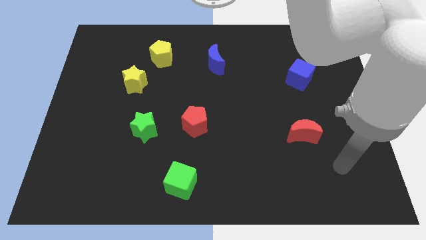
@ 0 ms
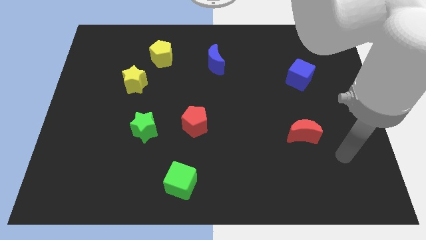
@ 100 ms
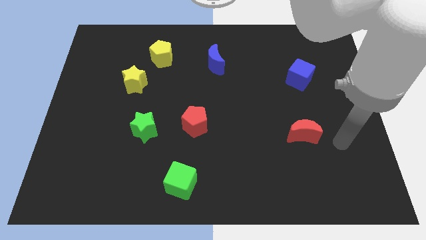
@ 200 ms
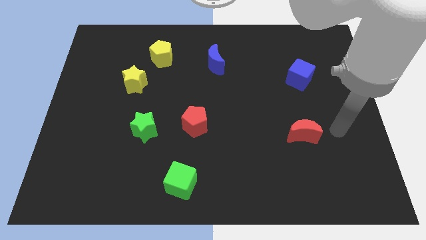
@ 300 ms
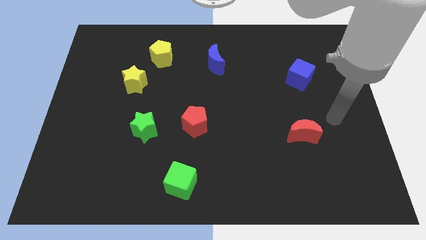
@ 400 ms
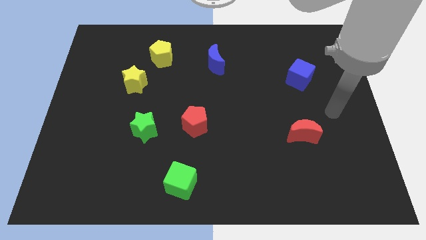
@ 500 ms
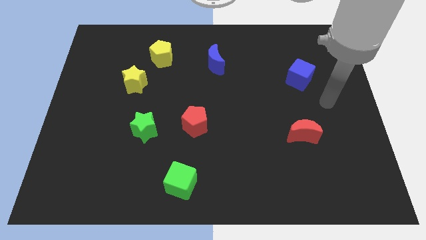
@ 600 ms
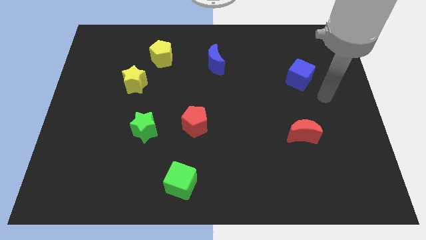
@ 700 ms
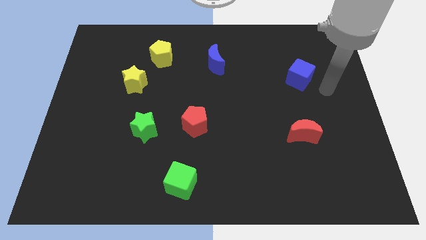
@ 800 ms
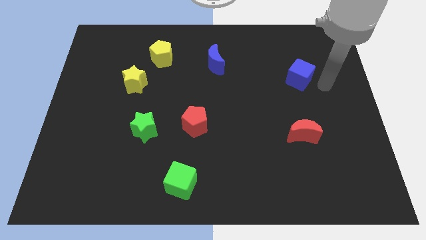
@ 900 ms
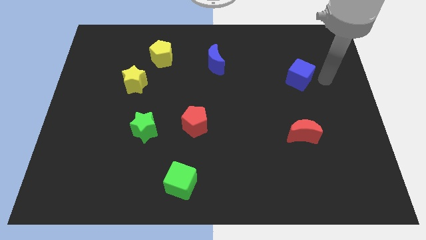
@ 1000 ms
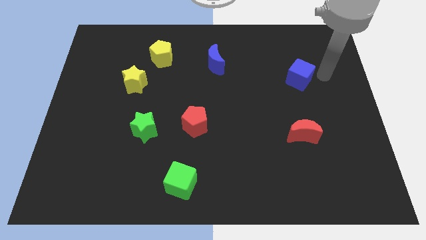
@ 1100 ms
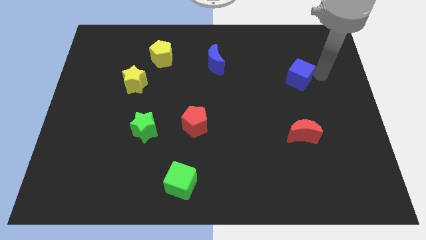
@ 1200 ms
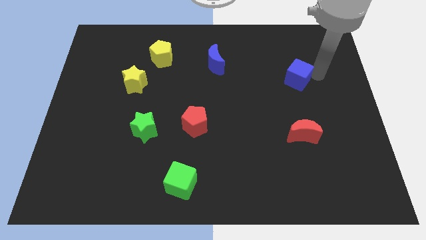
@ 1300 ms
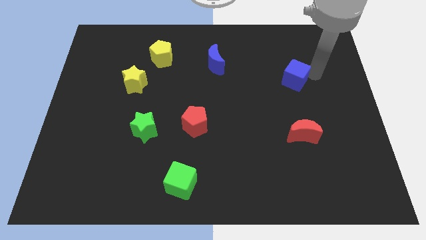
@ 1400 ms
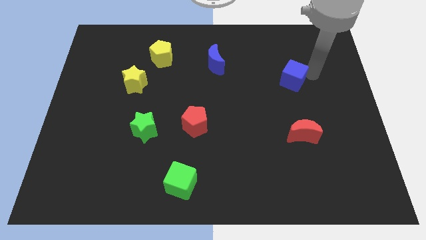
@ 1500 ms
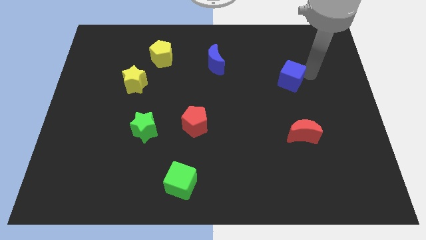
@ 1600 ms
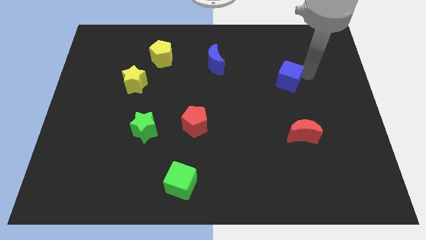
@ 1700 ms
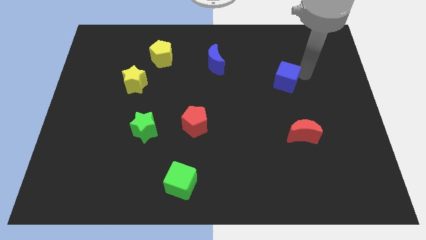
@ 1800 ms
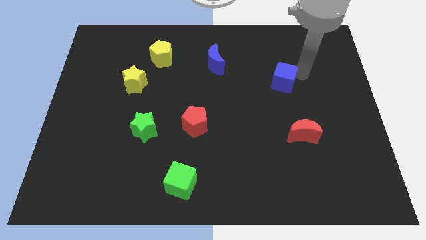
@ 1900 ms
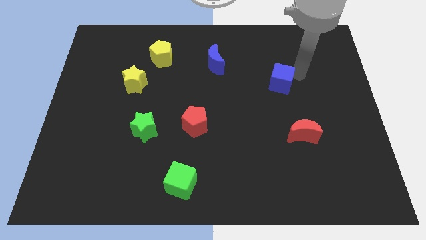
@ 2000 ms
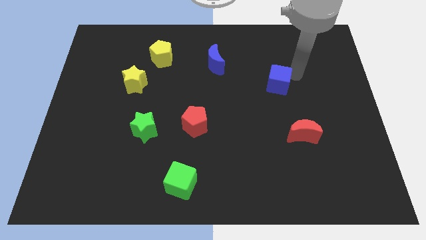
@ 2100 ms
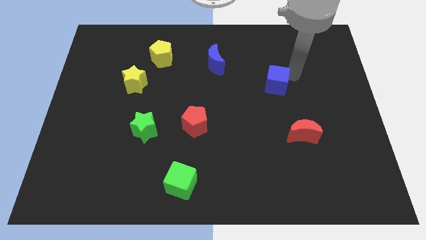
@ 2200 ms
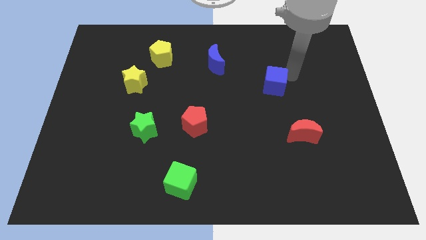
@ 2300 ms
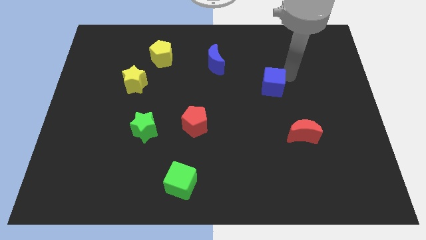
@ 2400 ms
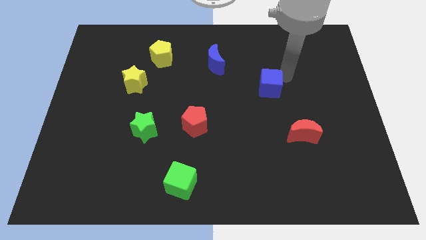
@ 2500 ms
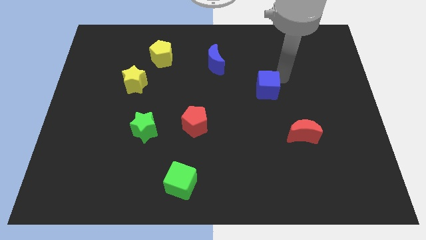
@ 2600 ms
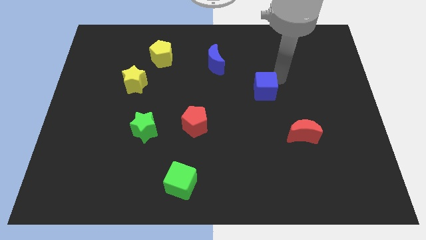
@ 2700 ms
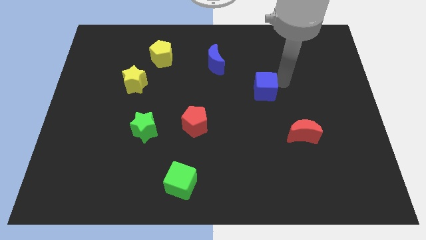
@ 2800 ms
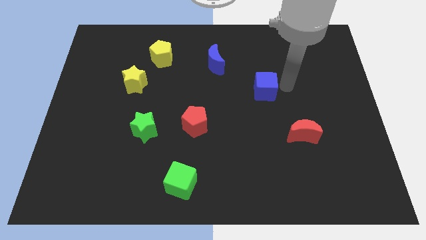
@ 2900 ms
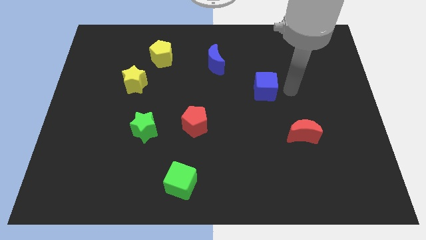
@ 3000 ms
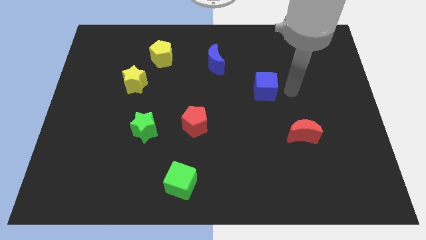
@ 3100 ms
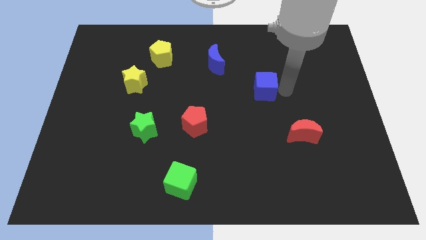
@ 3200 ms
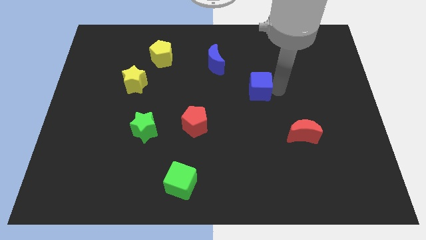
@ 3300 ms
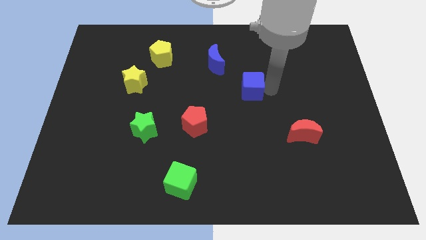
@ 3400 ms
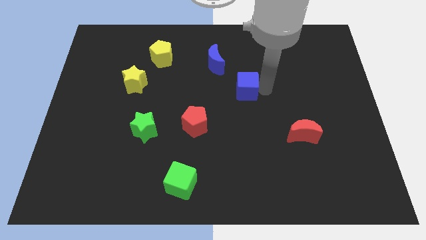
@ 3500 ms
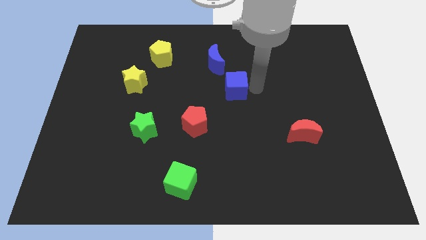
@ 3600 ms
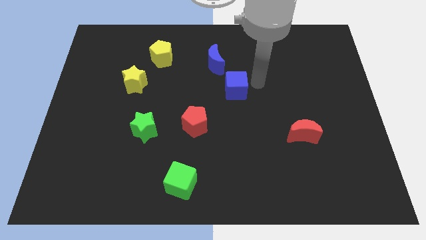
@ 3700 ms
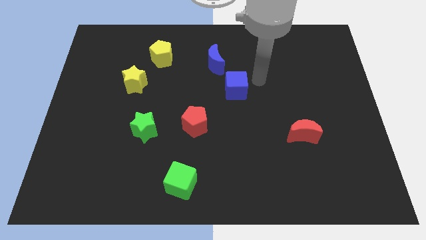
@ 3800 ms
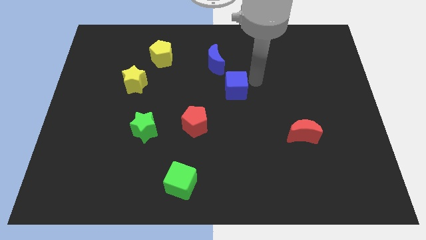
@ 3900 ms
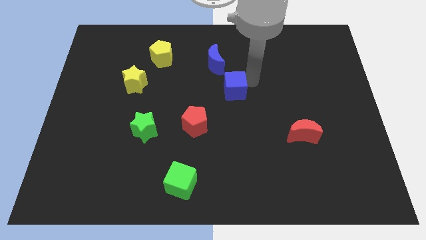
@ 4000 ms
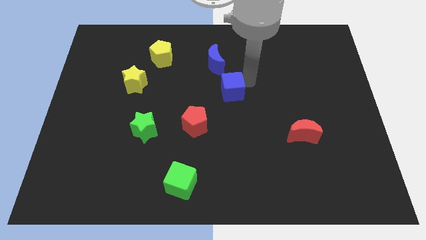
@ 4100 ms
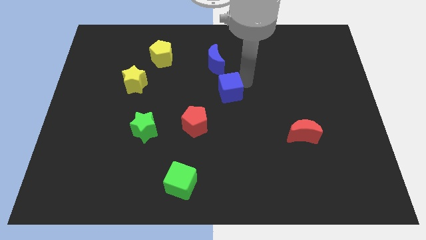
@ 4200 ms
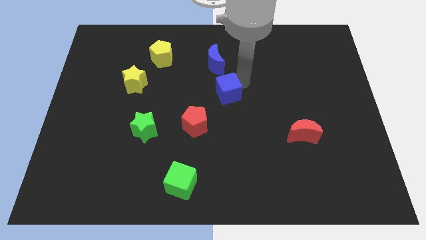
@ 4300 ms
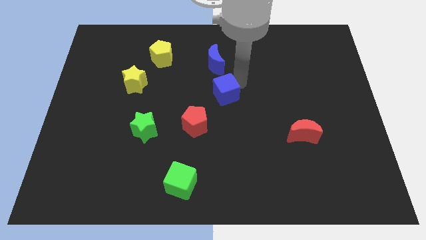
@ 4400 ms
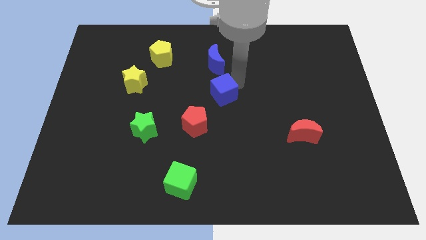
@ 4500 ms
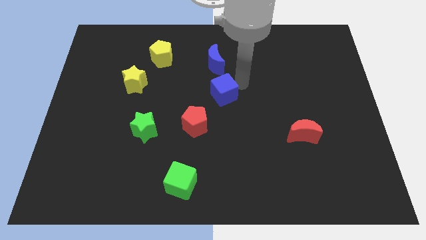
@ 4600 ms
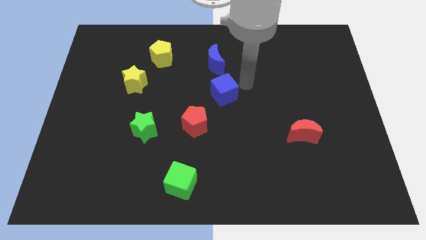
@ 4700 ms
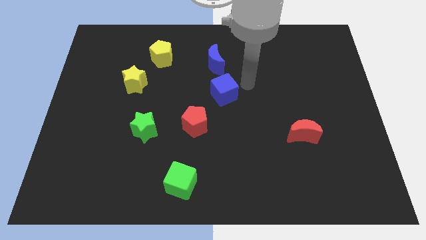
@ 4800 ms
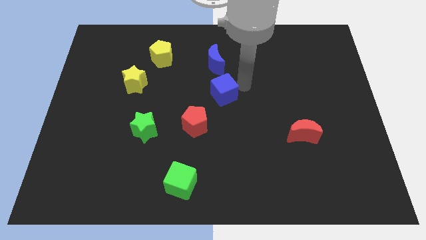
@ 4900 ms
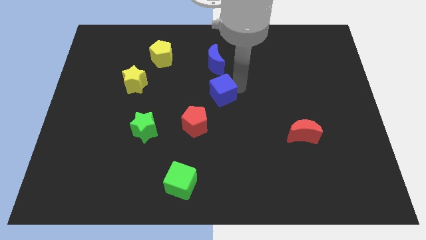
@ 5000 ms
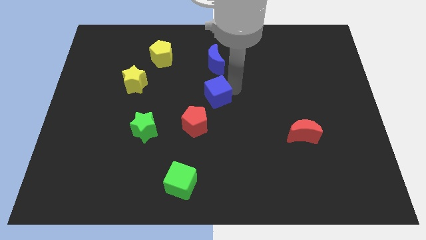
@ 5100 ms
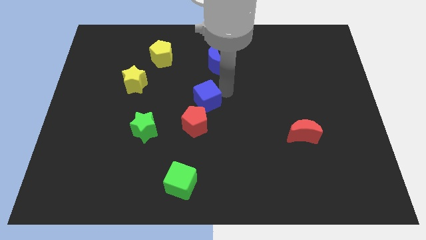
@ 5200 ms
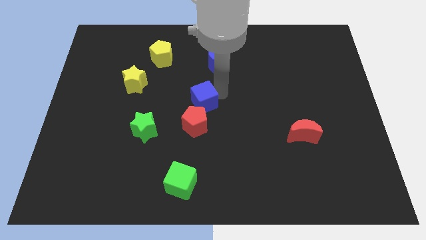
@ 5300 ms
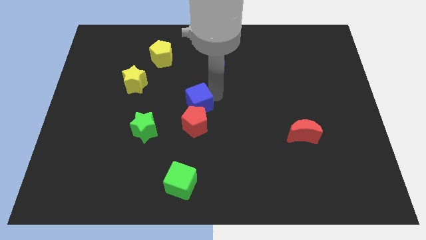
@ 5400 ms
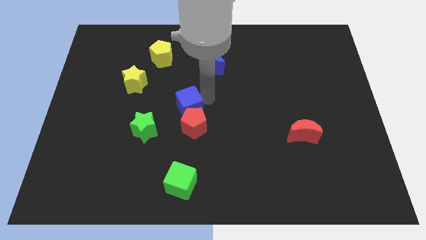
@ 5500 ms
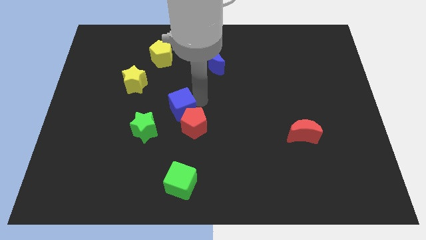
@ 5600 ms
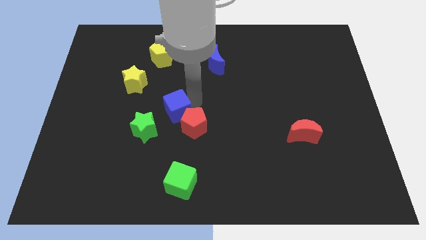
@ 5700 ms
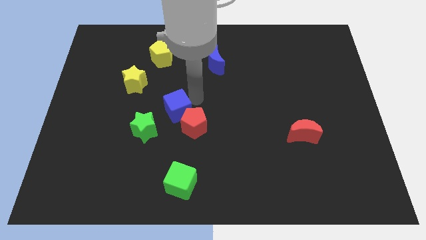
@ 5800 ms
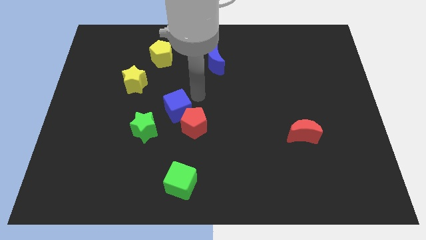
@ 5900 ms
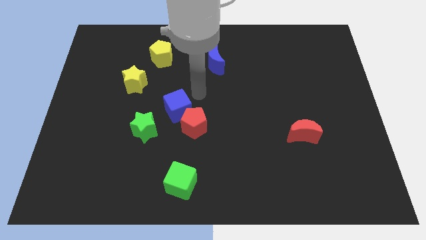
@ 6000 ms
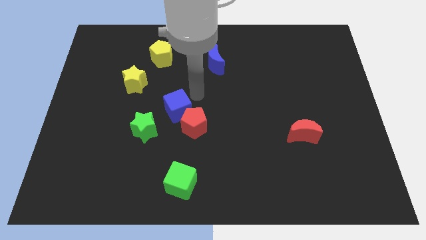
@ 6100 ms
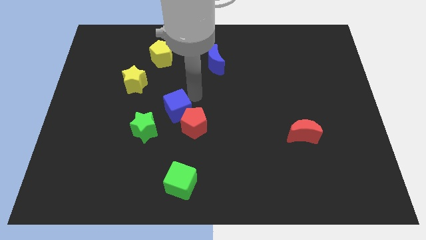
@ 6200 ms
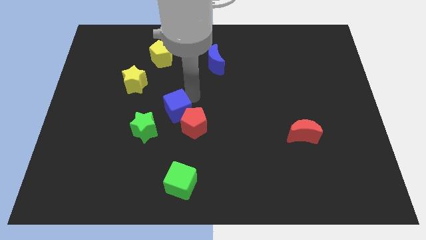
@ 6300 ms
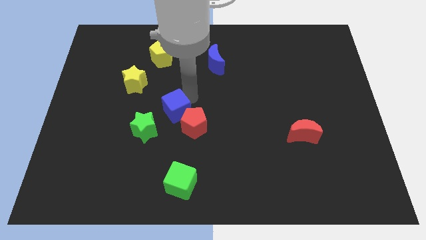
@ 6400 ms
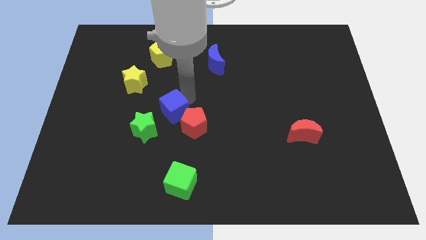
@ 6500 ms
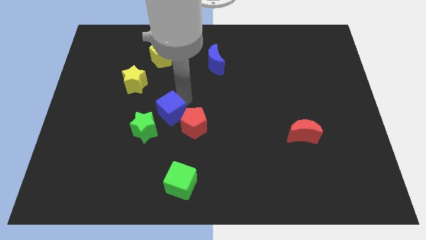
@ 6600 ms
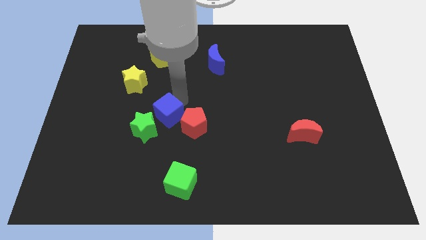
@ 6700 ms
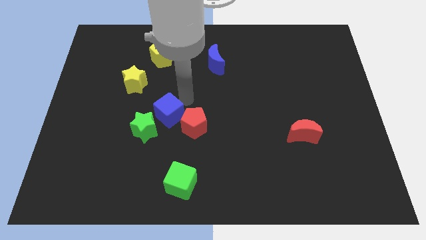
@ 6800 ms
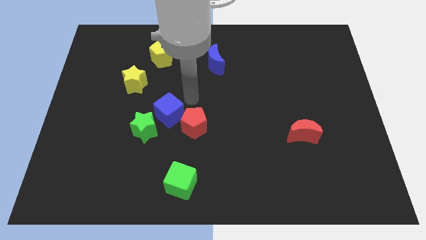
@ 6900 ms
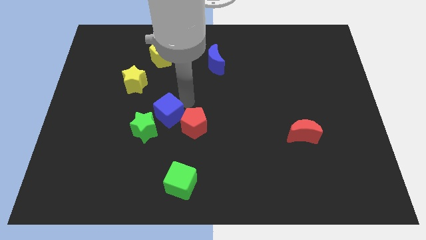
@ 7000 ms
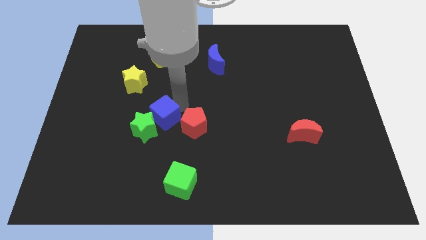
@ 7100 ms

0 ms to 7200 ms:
put the blue cube next to the green star
